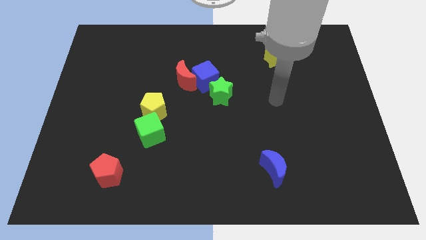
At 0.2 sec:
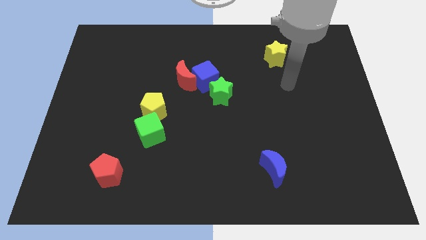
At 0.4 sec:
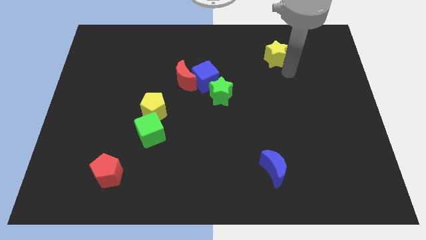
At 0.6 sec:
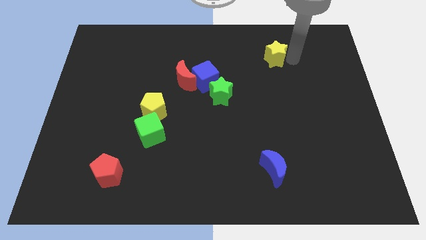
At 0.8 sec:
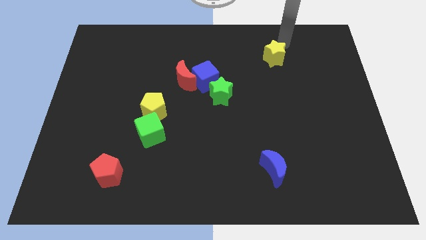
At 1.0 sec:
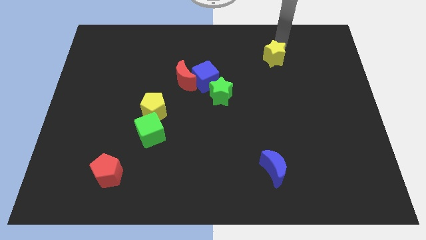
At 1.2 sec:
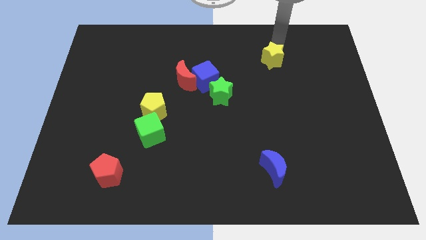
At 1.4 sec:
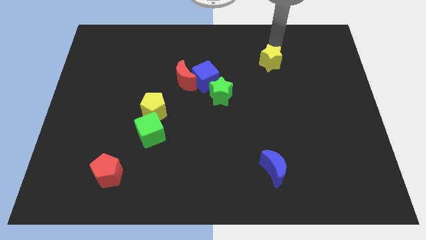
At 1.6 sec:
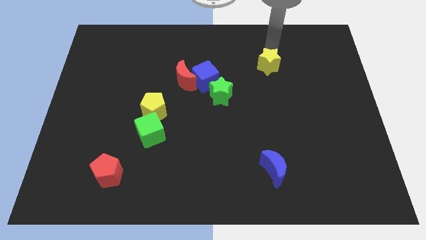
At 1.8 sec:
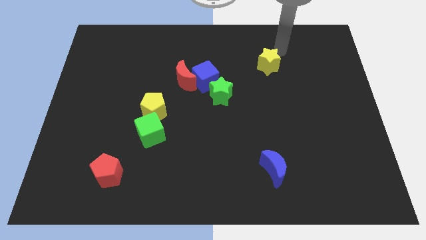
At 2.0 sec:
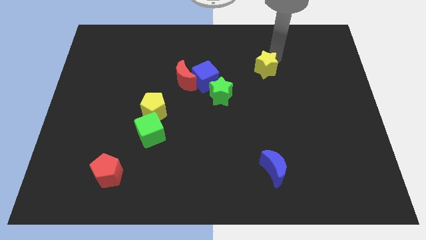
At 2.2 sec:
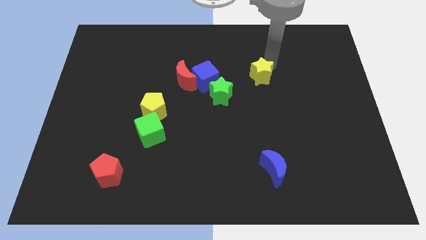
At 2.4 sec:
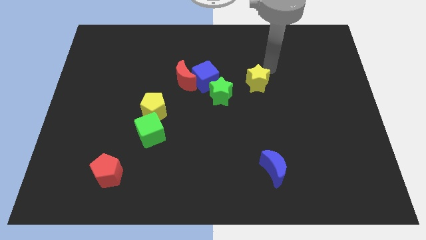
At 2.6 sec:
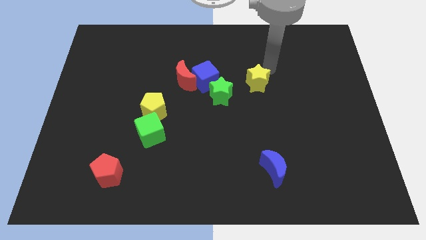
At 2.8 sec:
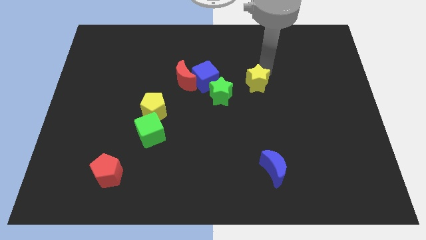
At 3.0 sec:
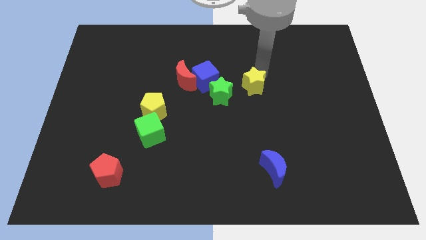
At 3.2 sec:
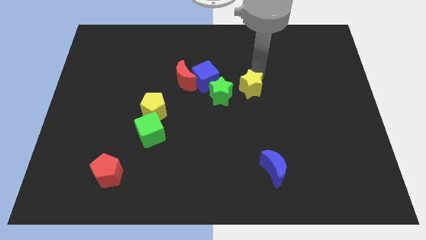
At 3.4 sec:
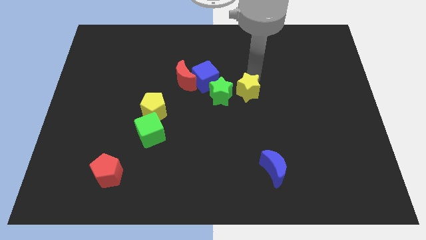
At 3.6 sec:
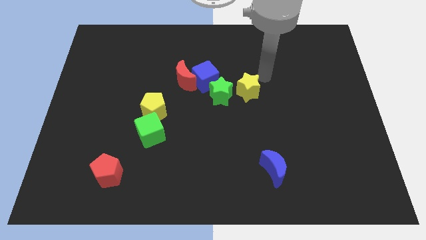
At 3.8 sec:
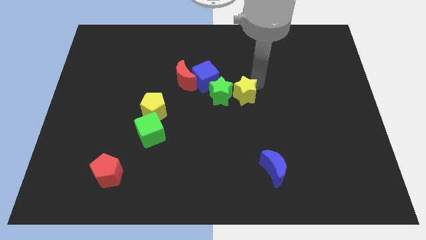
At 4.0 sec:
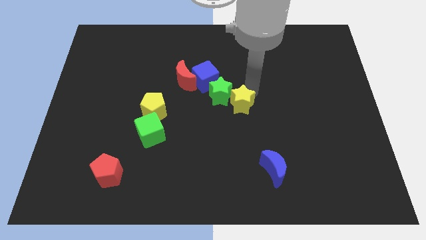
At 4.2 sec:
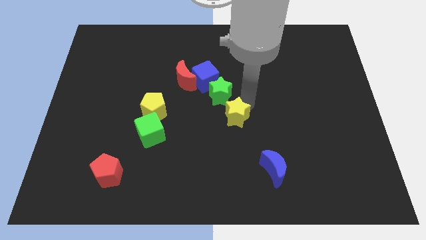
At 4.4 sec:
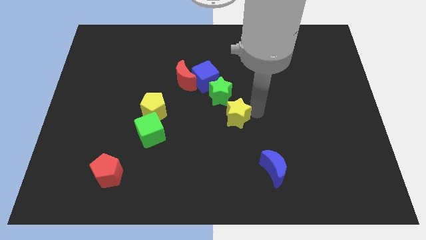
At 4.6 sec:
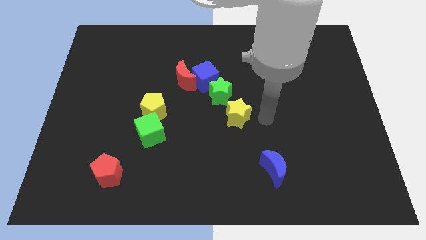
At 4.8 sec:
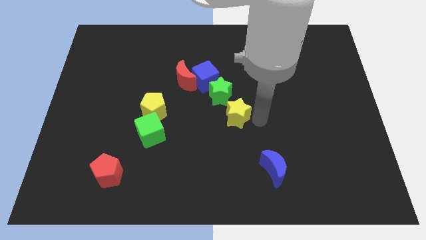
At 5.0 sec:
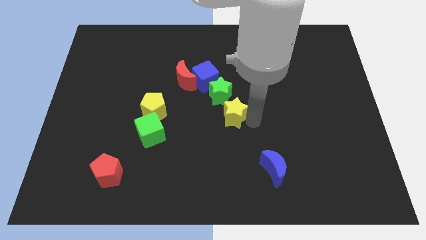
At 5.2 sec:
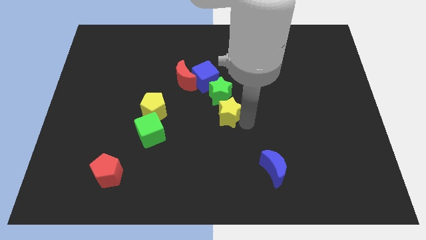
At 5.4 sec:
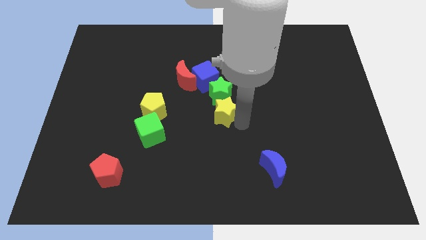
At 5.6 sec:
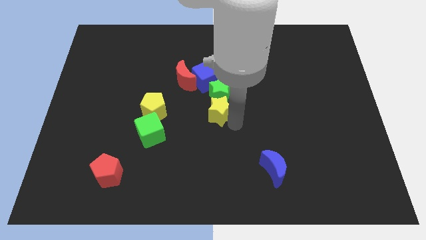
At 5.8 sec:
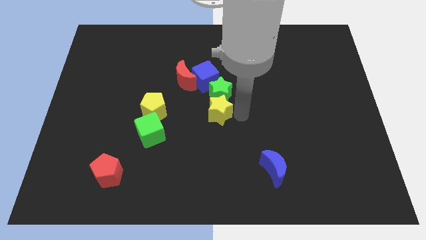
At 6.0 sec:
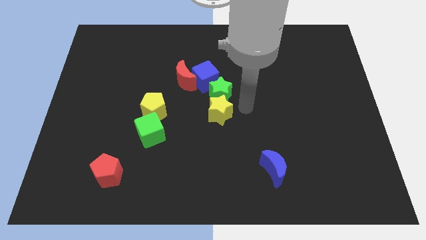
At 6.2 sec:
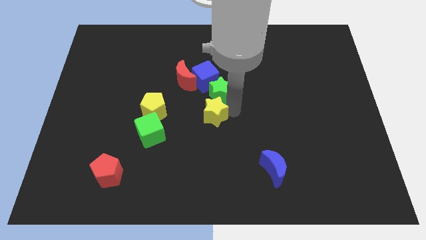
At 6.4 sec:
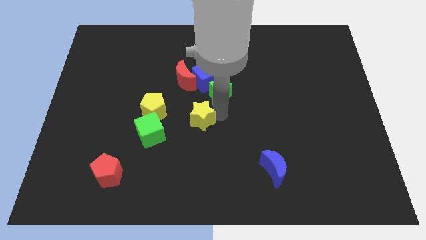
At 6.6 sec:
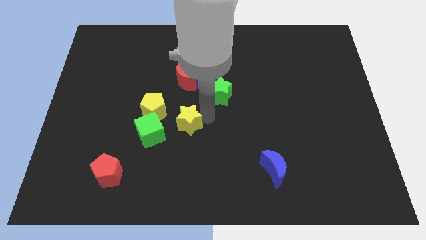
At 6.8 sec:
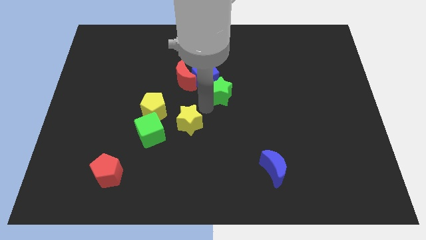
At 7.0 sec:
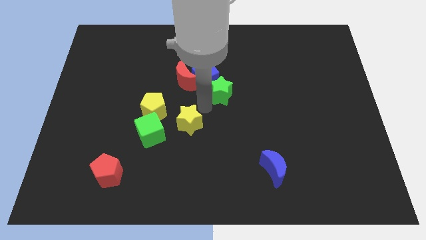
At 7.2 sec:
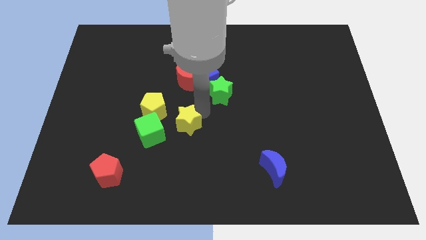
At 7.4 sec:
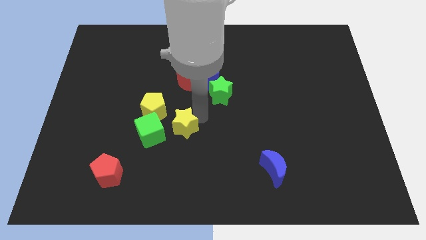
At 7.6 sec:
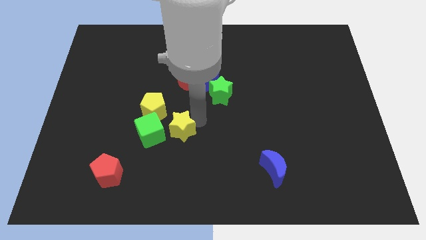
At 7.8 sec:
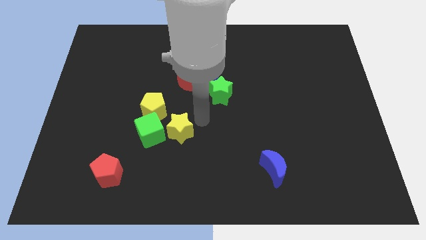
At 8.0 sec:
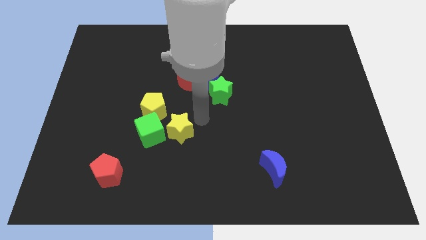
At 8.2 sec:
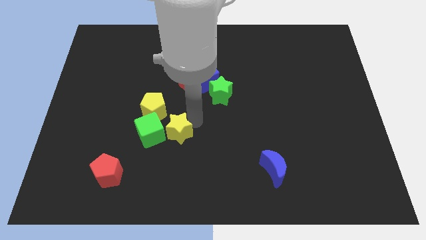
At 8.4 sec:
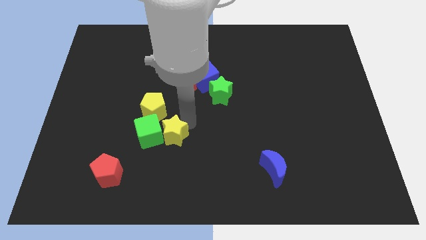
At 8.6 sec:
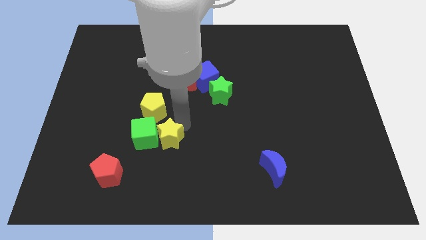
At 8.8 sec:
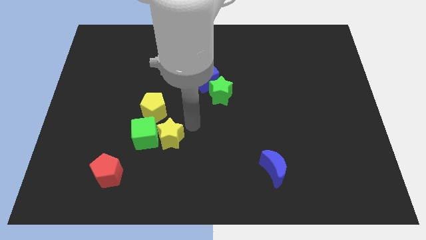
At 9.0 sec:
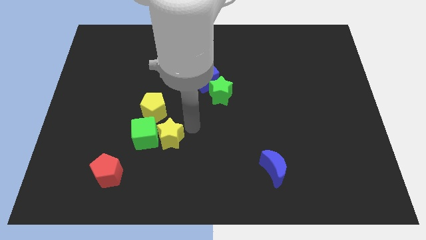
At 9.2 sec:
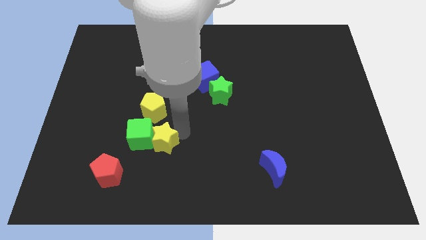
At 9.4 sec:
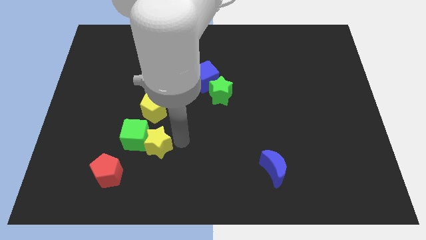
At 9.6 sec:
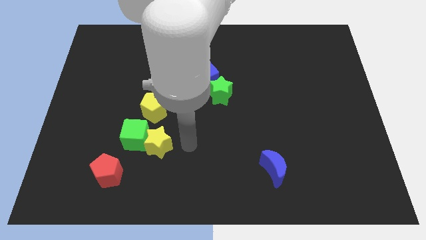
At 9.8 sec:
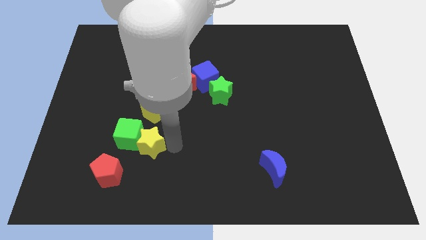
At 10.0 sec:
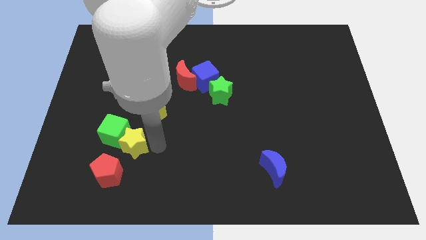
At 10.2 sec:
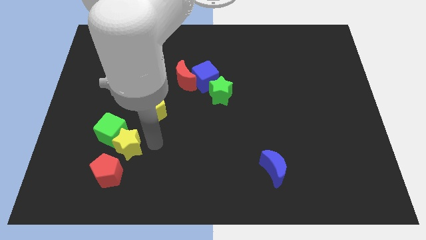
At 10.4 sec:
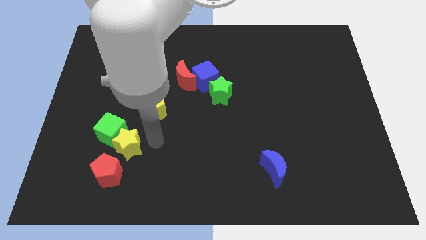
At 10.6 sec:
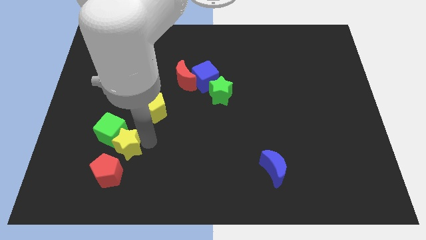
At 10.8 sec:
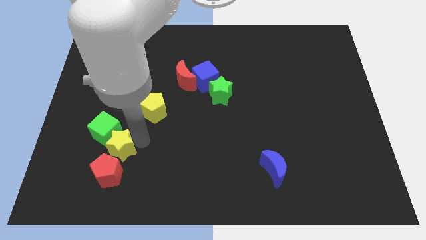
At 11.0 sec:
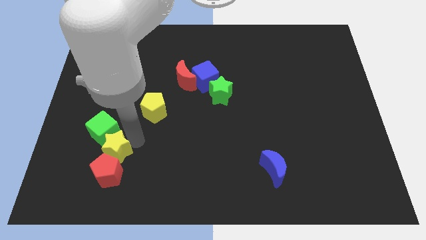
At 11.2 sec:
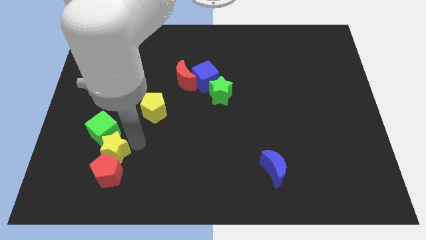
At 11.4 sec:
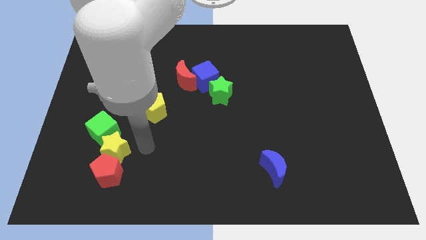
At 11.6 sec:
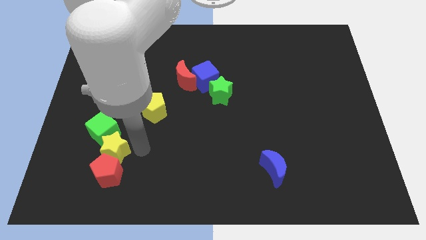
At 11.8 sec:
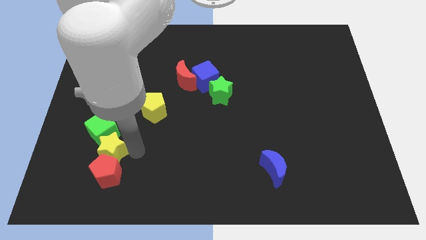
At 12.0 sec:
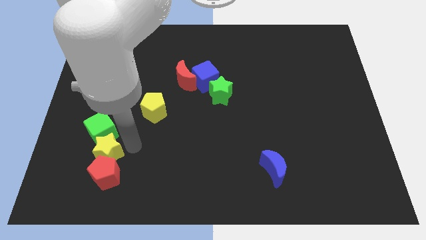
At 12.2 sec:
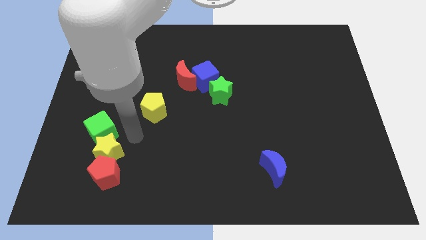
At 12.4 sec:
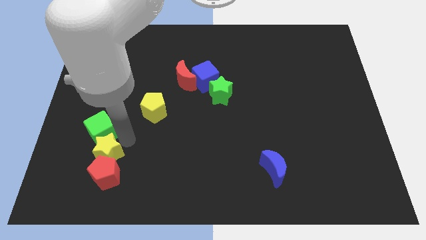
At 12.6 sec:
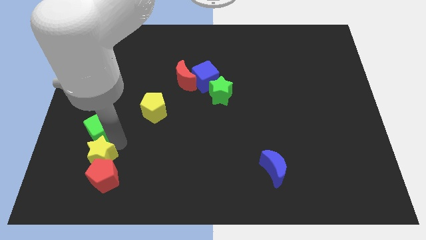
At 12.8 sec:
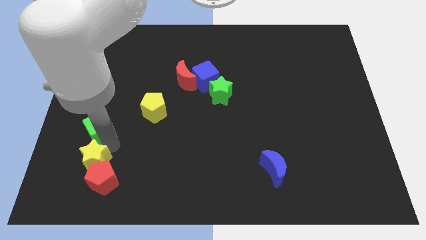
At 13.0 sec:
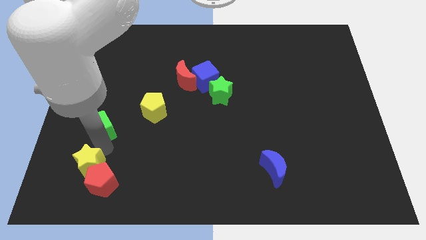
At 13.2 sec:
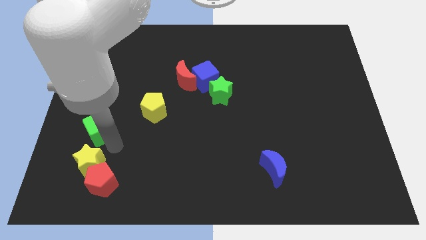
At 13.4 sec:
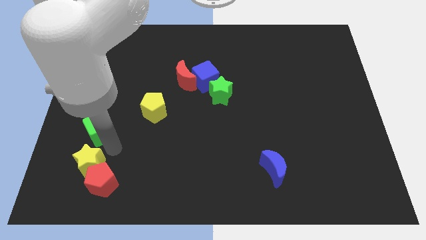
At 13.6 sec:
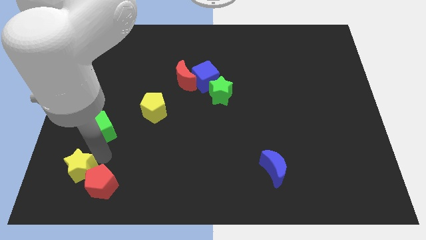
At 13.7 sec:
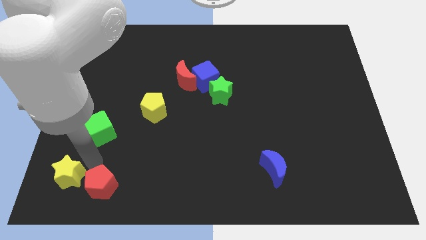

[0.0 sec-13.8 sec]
put the yellow star to the bottom left of the board
